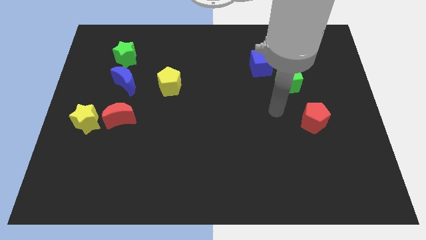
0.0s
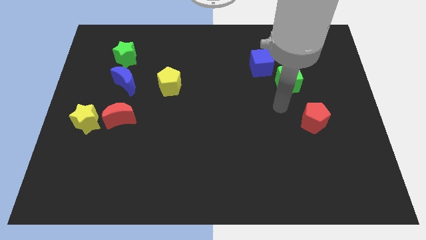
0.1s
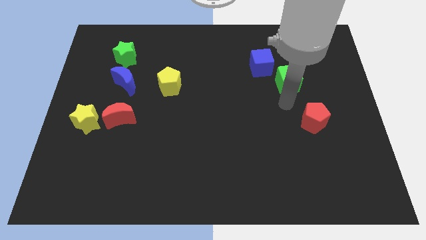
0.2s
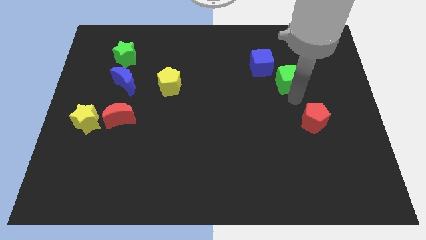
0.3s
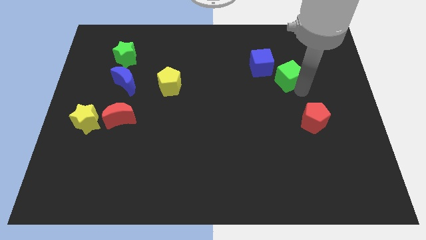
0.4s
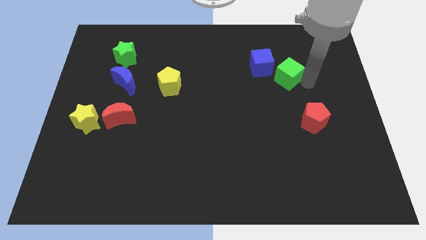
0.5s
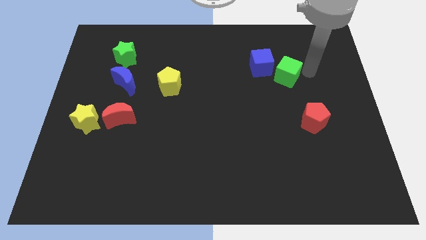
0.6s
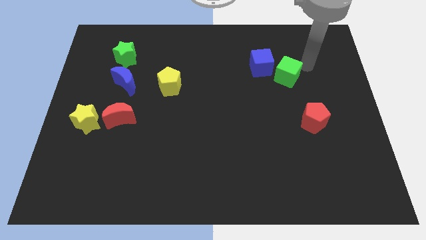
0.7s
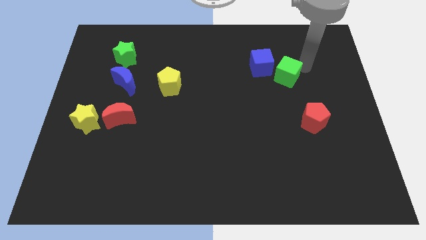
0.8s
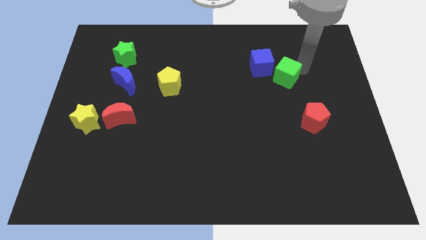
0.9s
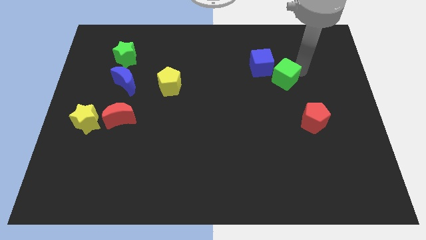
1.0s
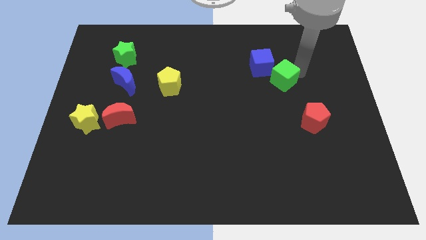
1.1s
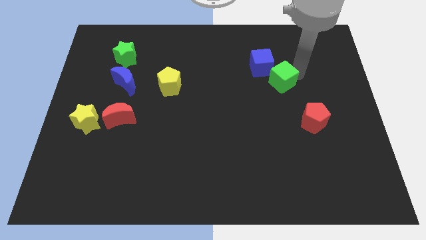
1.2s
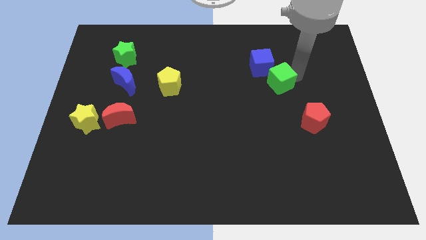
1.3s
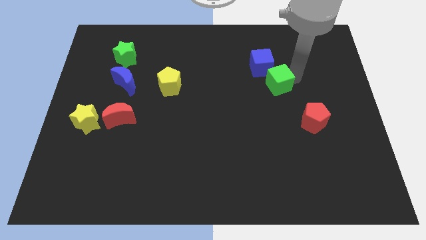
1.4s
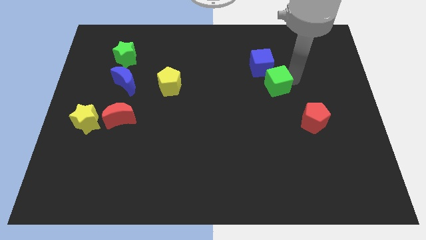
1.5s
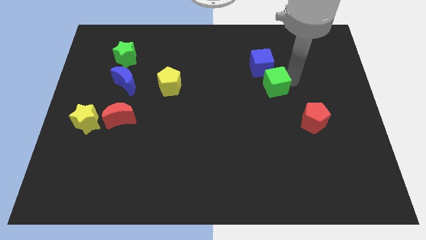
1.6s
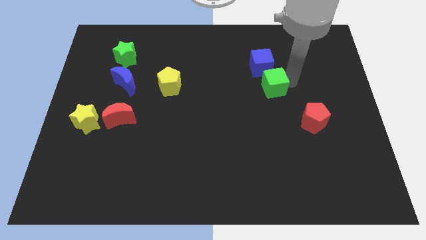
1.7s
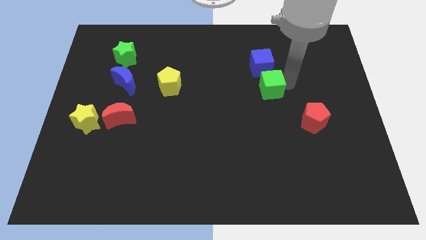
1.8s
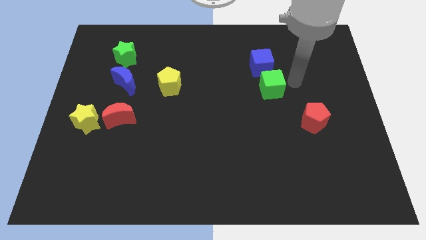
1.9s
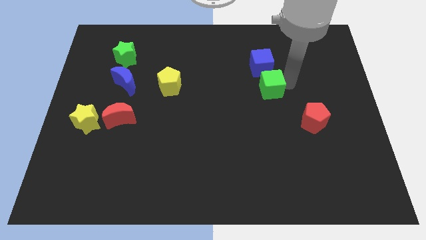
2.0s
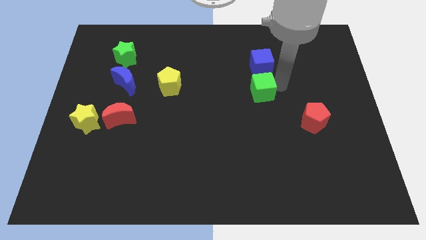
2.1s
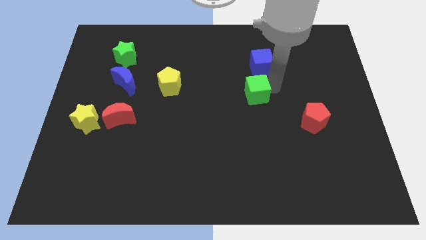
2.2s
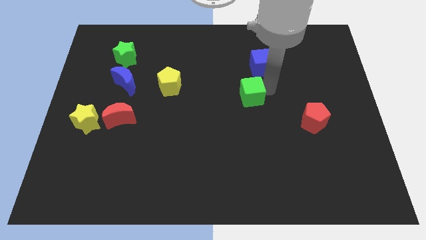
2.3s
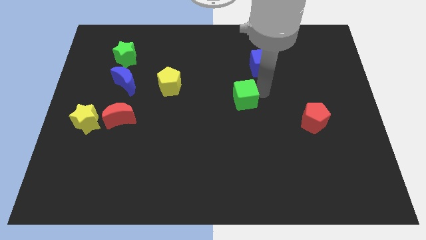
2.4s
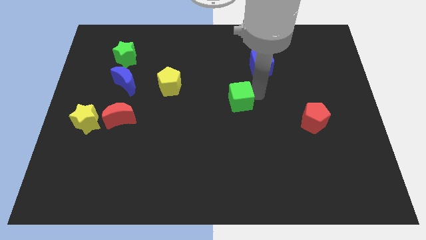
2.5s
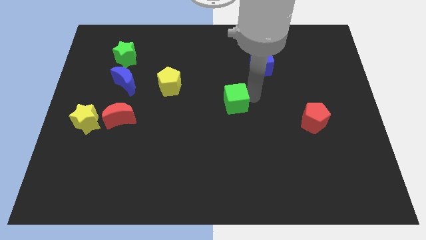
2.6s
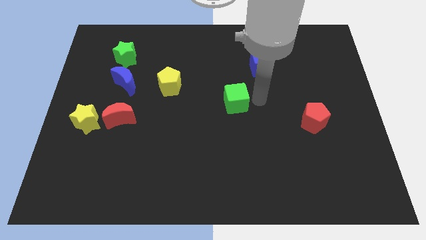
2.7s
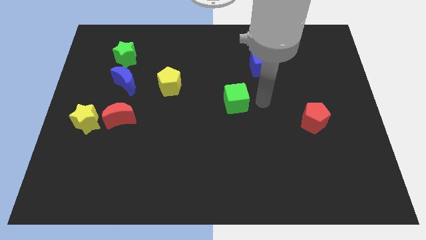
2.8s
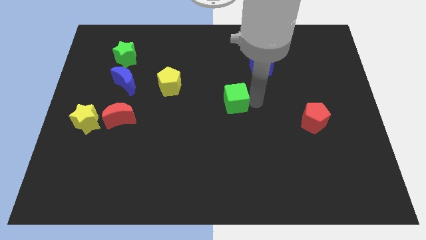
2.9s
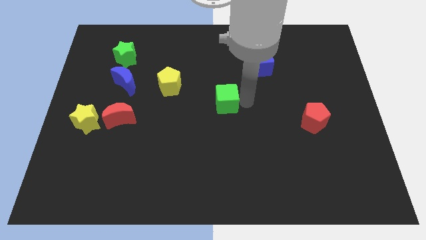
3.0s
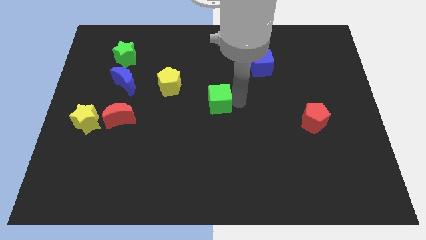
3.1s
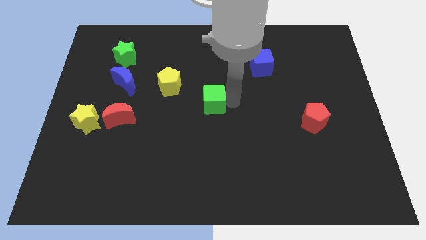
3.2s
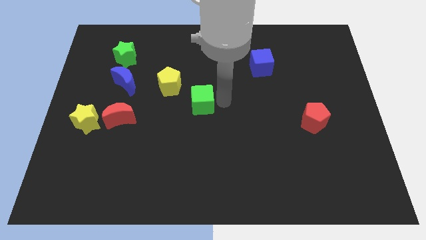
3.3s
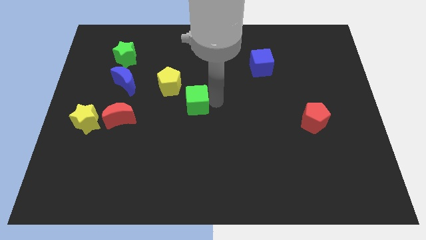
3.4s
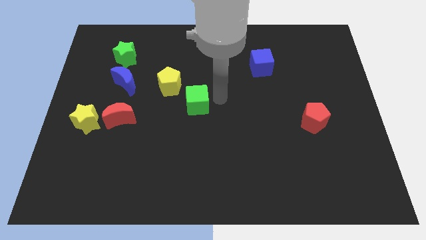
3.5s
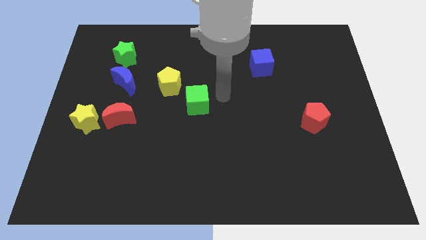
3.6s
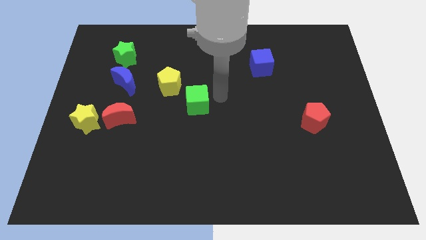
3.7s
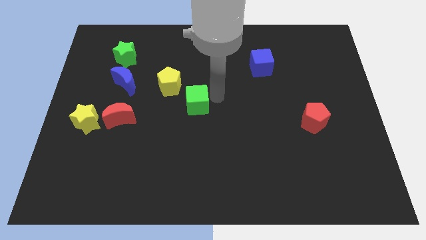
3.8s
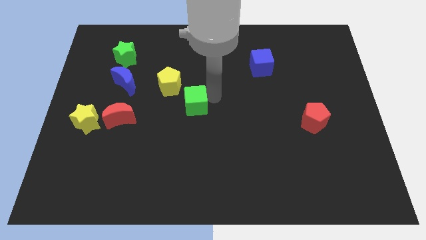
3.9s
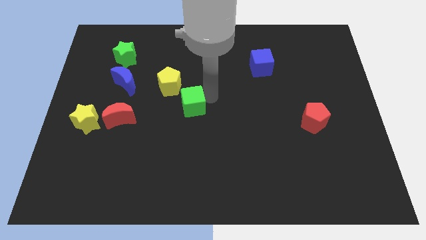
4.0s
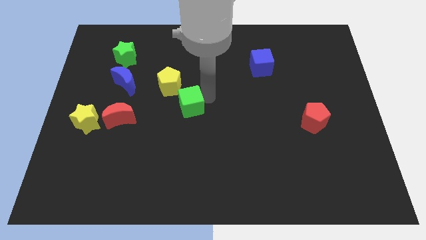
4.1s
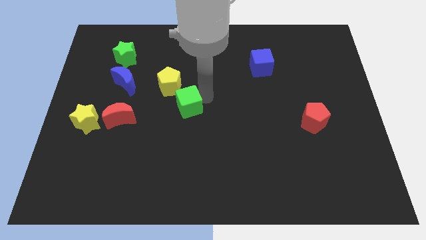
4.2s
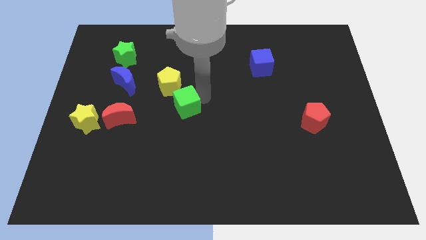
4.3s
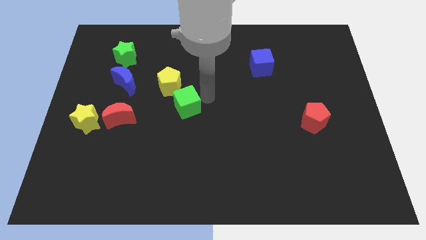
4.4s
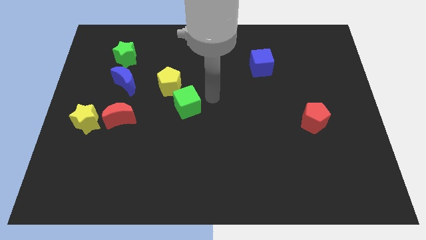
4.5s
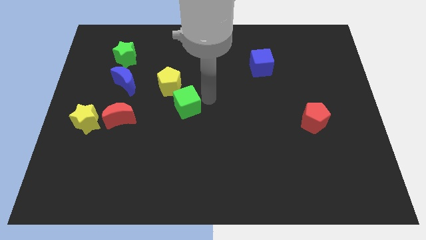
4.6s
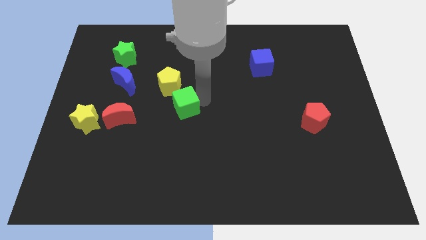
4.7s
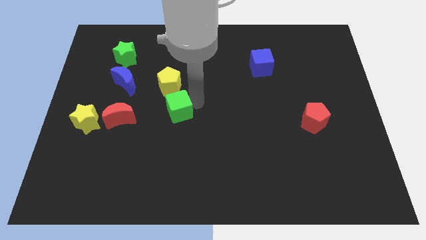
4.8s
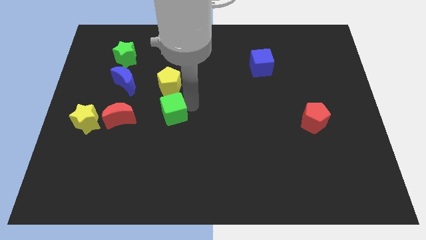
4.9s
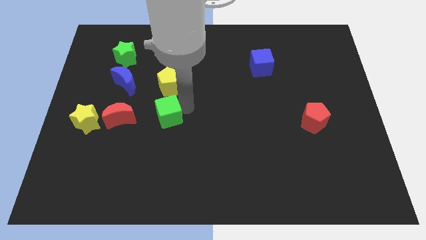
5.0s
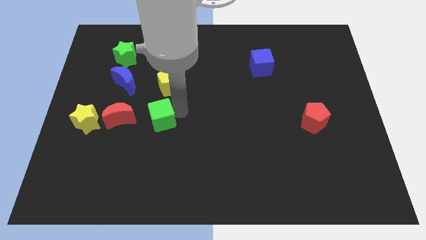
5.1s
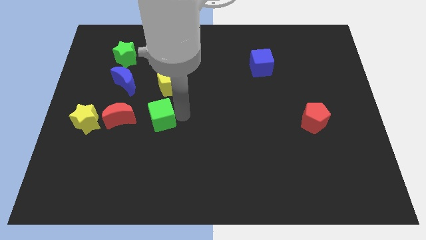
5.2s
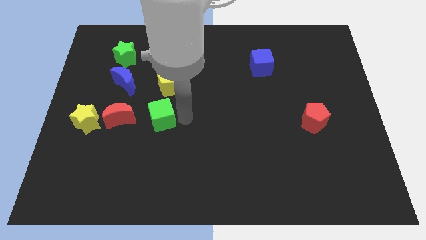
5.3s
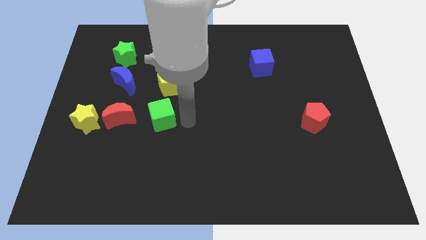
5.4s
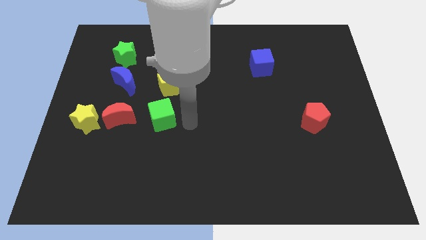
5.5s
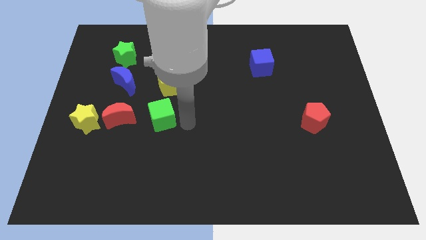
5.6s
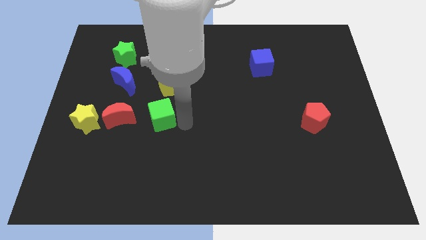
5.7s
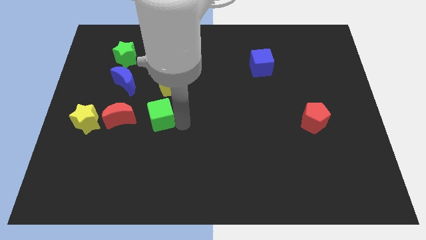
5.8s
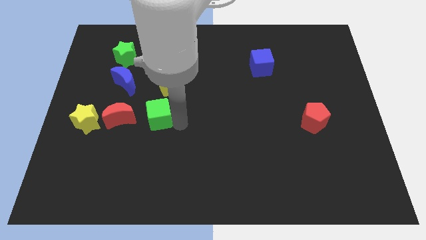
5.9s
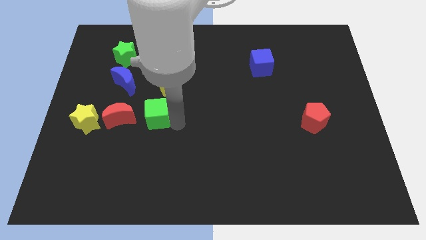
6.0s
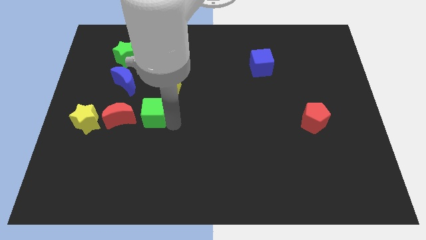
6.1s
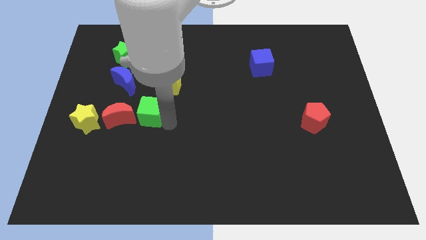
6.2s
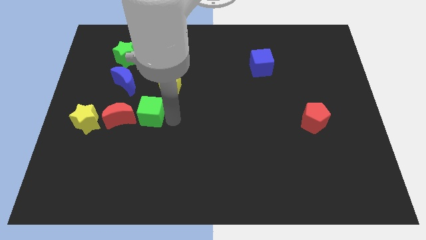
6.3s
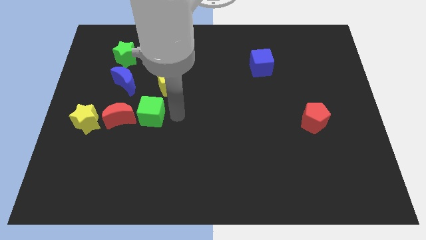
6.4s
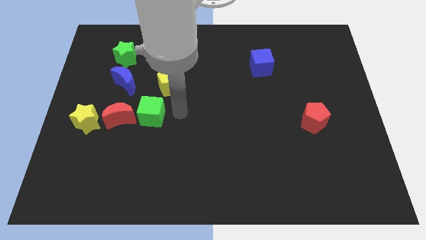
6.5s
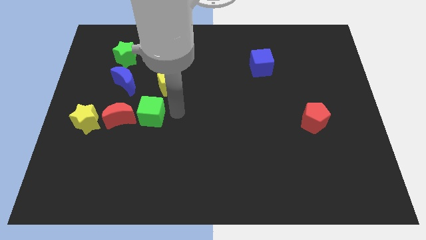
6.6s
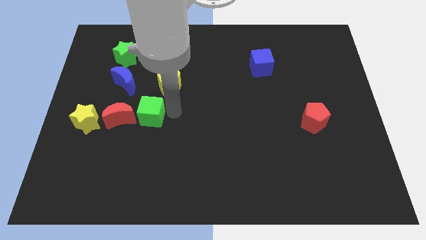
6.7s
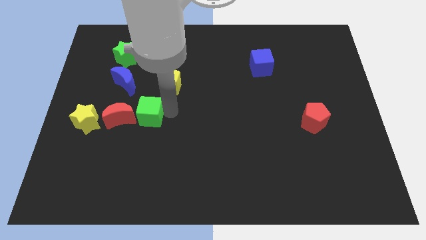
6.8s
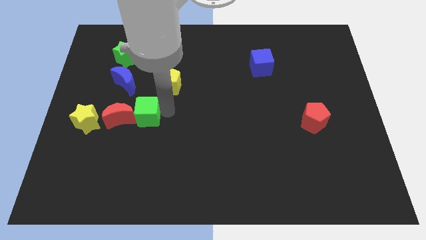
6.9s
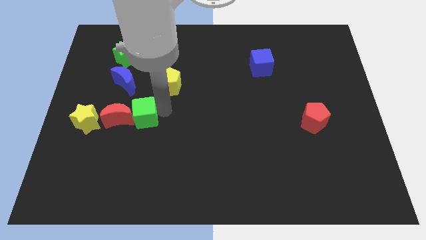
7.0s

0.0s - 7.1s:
push the green cube next to the red moon

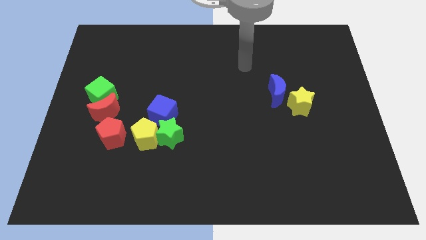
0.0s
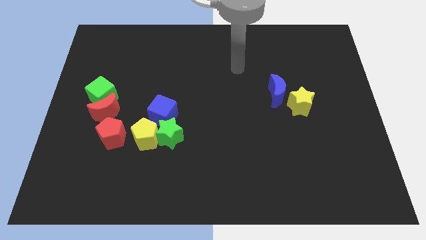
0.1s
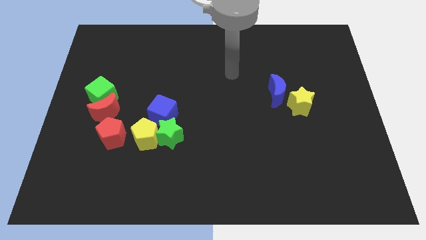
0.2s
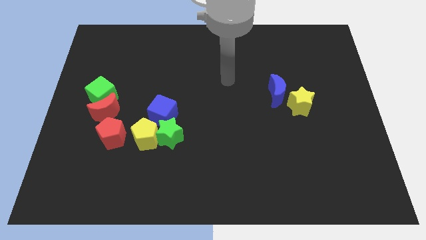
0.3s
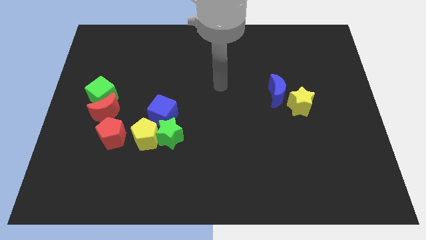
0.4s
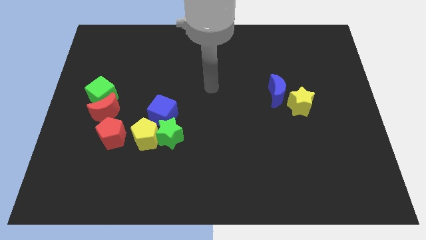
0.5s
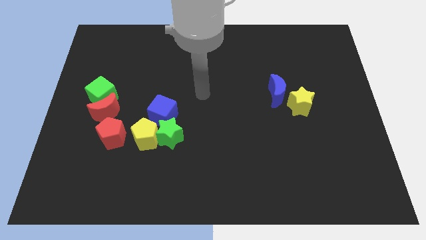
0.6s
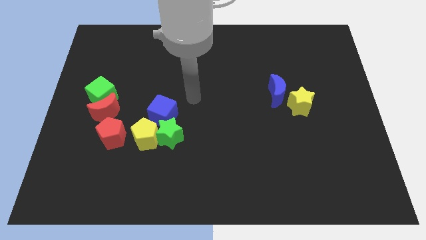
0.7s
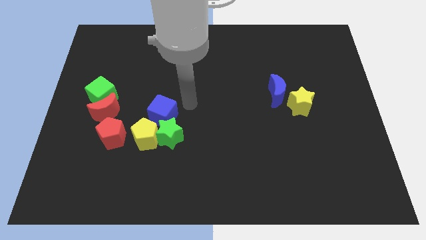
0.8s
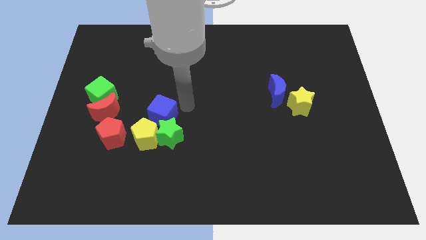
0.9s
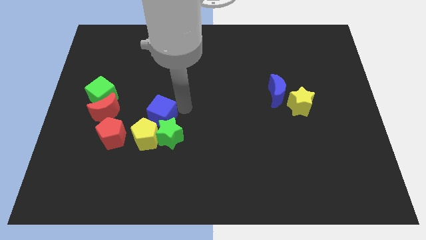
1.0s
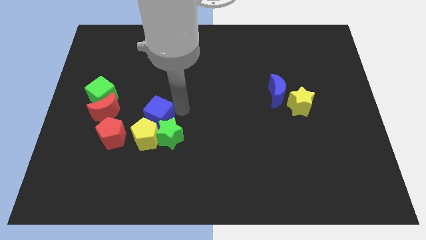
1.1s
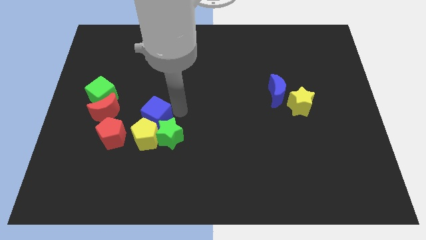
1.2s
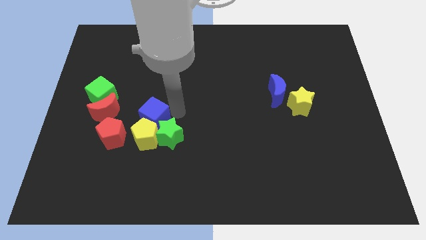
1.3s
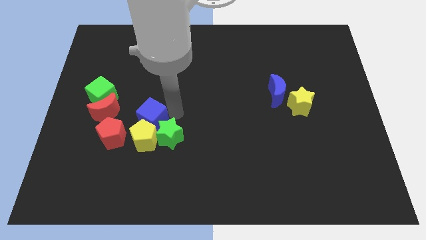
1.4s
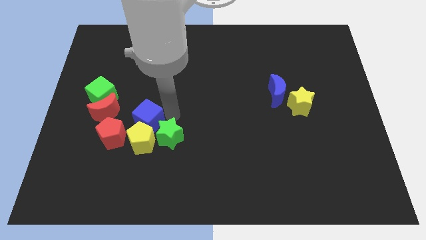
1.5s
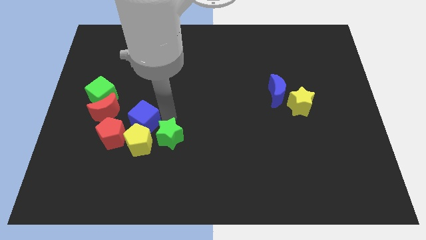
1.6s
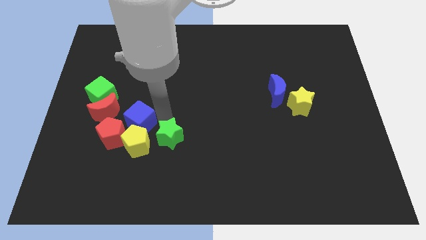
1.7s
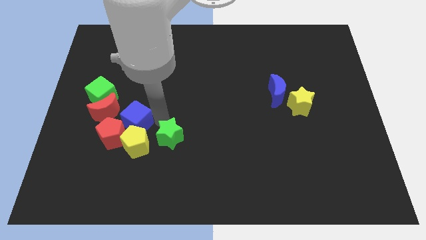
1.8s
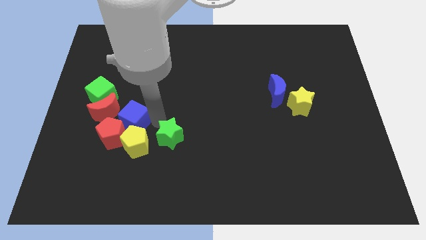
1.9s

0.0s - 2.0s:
slide the blue cube close to the red pentagon
